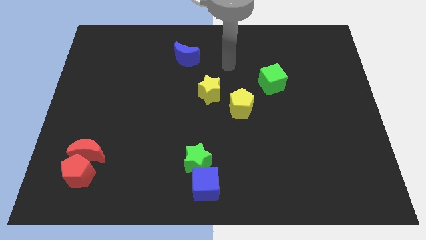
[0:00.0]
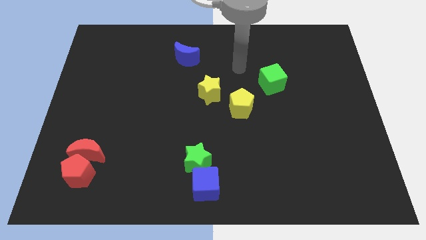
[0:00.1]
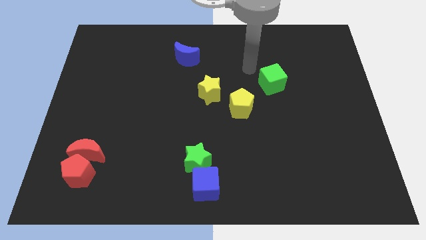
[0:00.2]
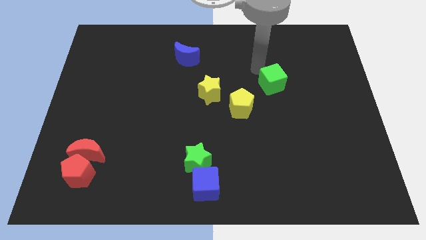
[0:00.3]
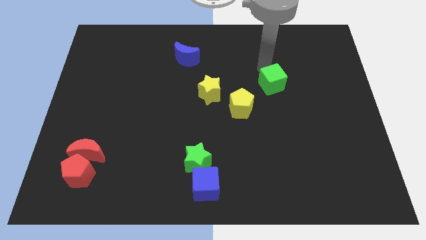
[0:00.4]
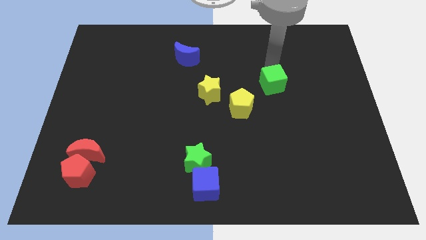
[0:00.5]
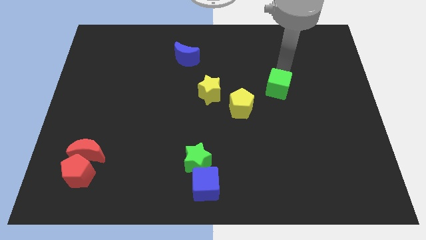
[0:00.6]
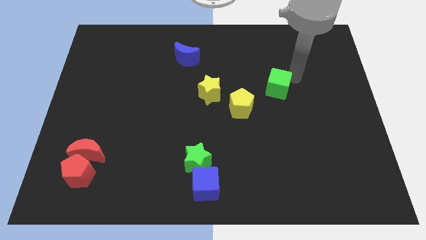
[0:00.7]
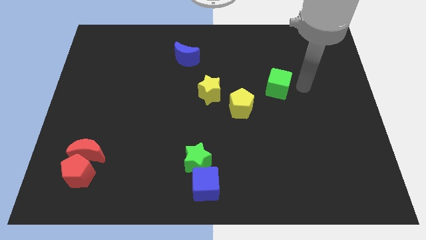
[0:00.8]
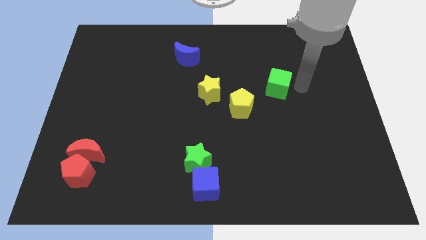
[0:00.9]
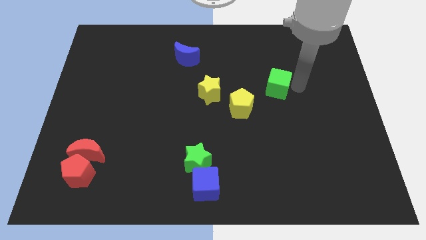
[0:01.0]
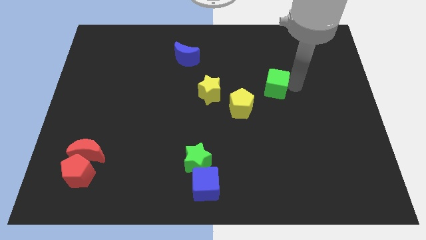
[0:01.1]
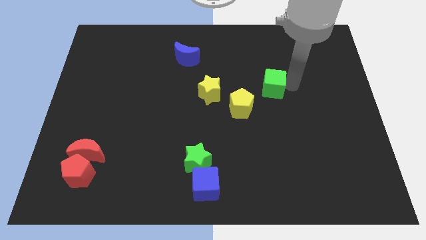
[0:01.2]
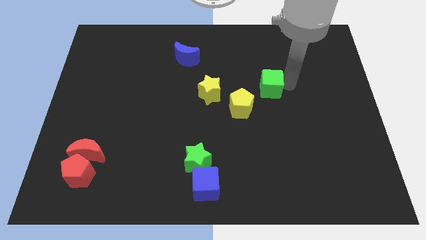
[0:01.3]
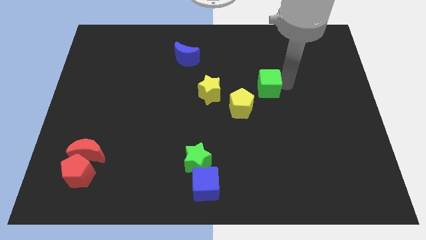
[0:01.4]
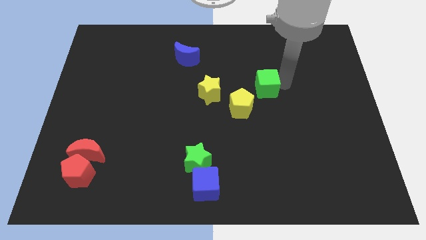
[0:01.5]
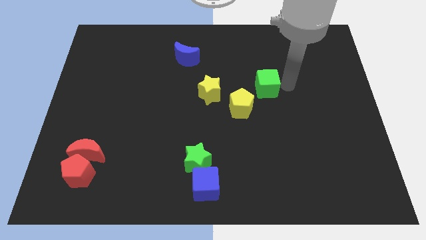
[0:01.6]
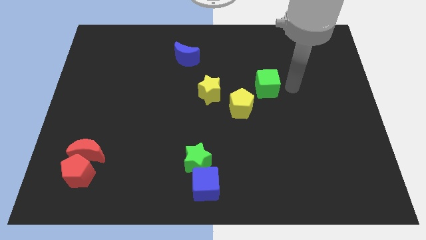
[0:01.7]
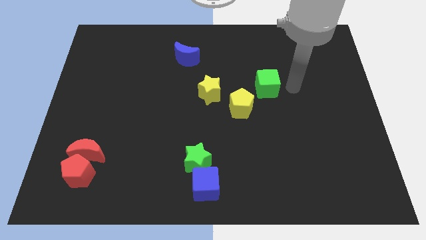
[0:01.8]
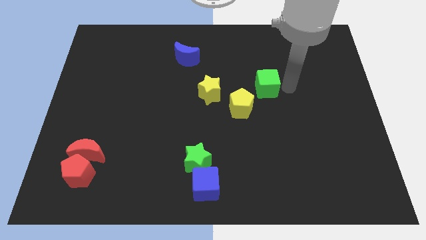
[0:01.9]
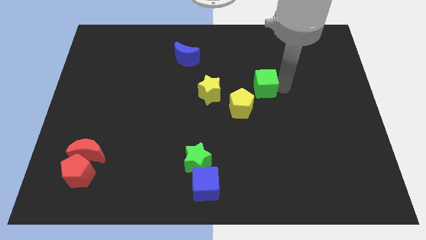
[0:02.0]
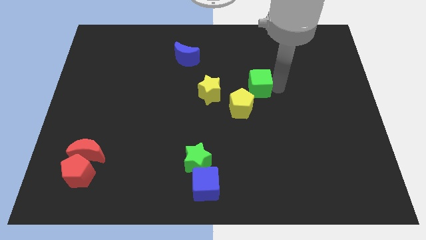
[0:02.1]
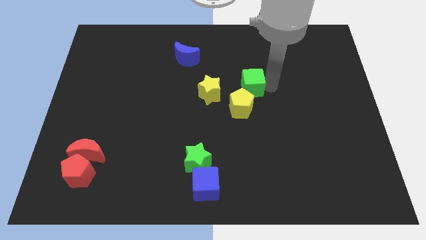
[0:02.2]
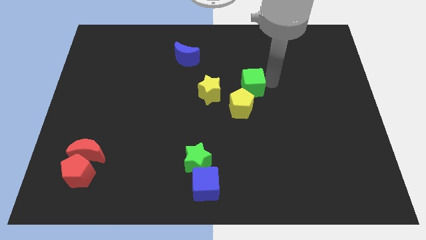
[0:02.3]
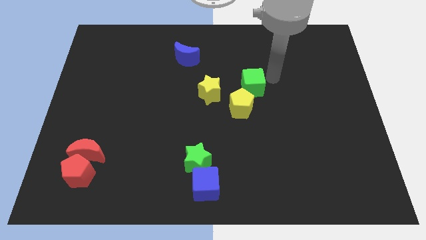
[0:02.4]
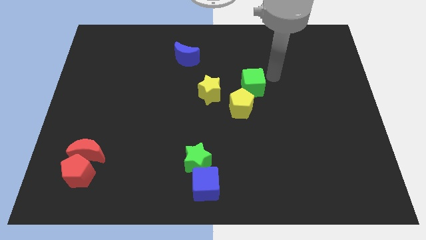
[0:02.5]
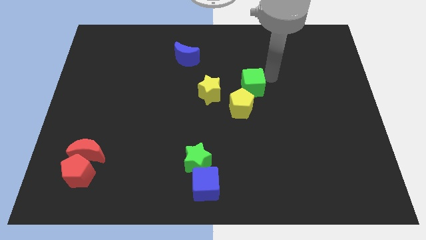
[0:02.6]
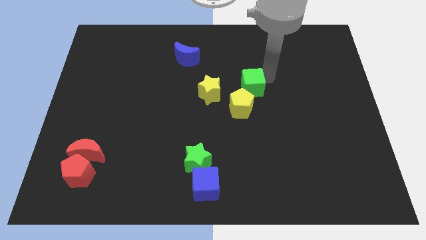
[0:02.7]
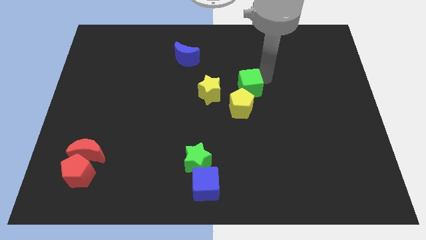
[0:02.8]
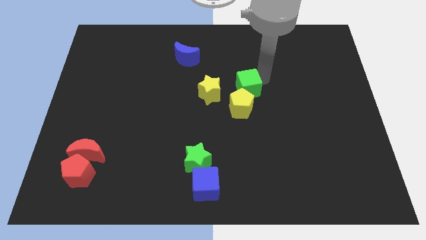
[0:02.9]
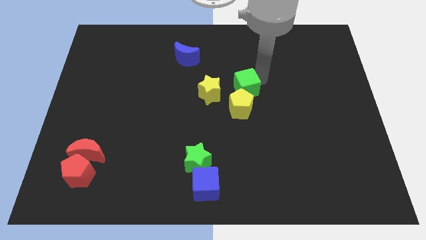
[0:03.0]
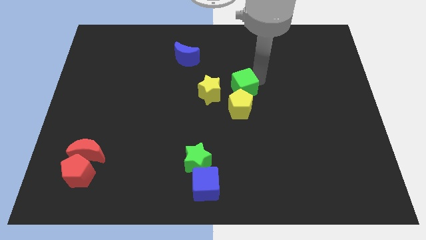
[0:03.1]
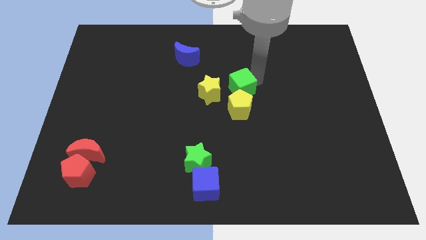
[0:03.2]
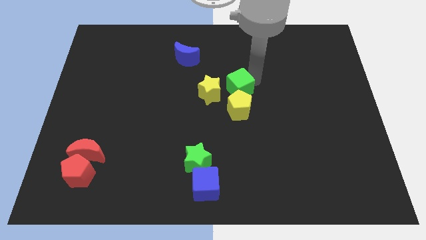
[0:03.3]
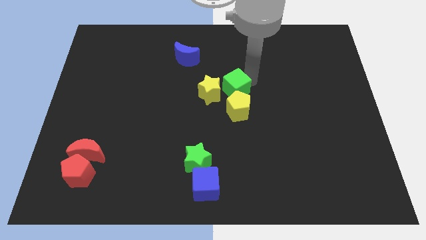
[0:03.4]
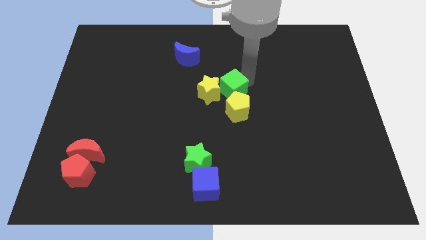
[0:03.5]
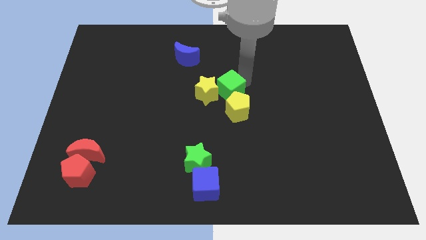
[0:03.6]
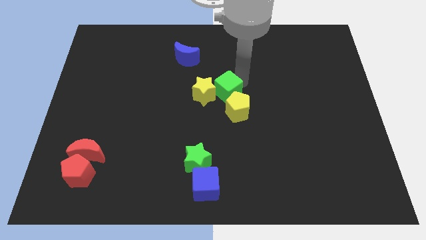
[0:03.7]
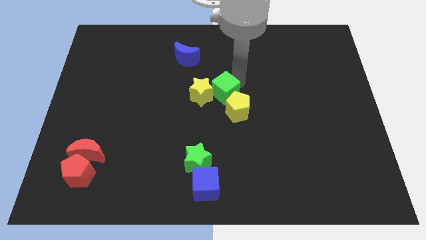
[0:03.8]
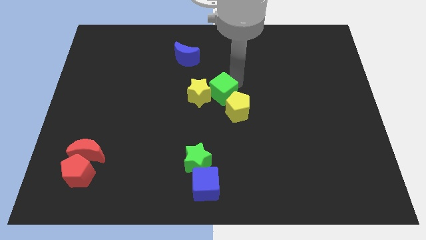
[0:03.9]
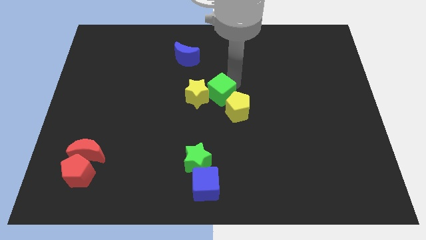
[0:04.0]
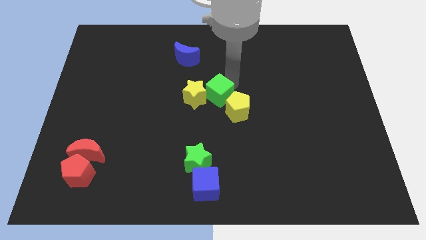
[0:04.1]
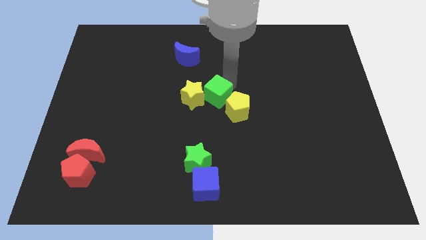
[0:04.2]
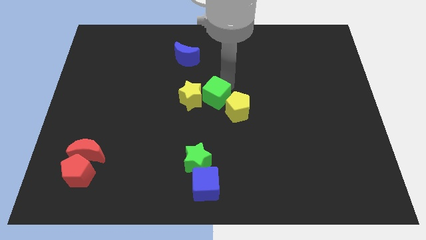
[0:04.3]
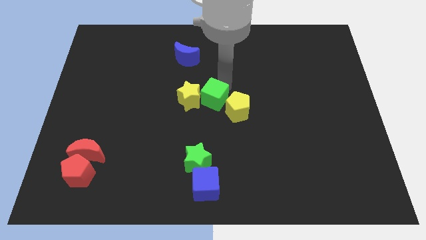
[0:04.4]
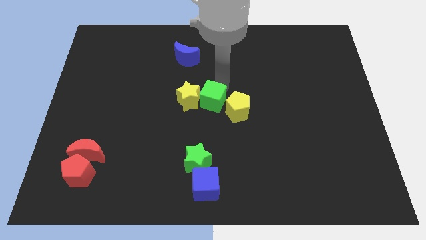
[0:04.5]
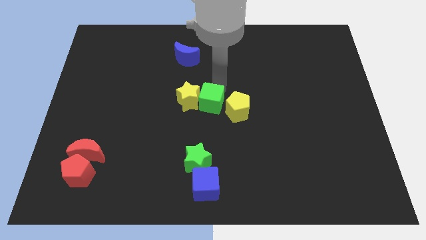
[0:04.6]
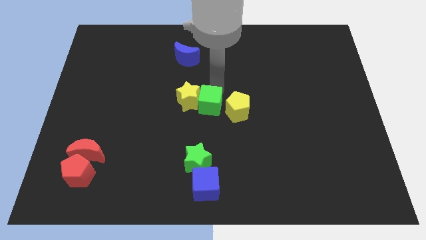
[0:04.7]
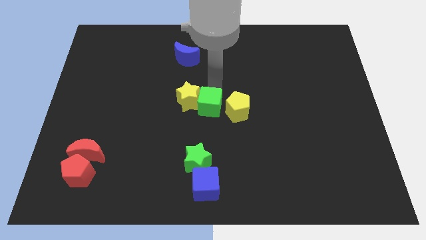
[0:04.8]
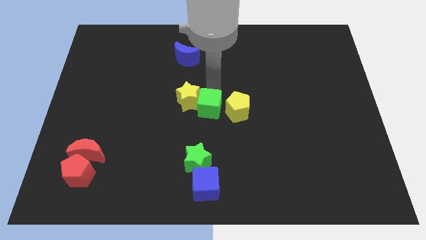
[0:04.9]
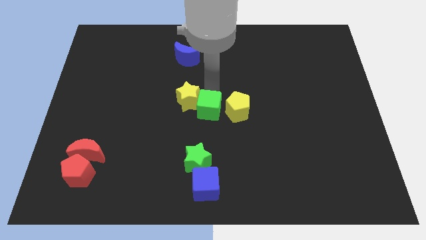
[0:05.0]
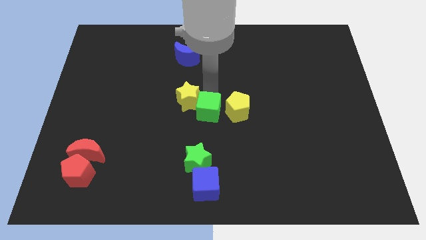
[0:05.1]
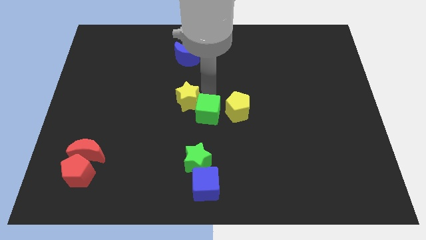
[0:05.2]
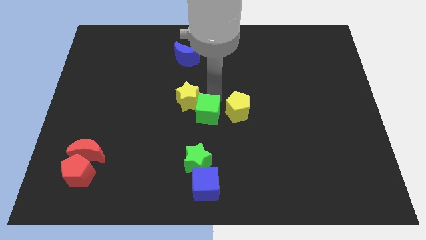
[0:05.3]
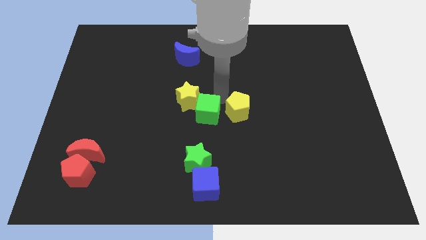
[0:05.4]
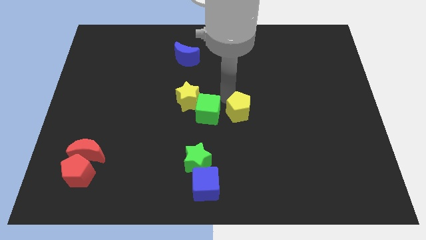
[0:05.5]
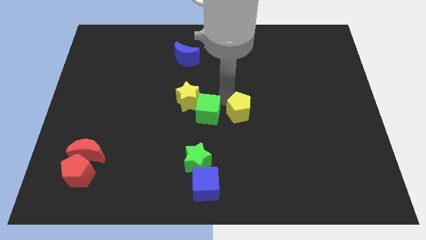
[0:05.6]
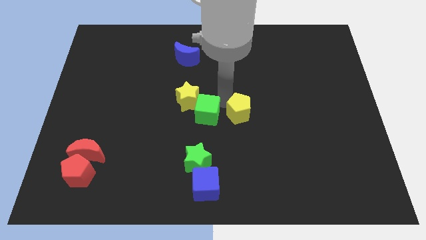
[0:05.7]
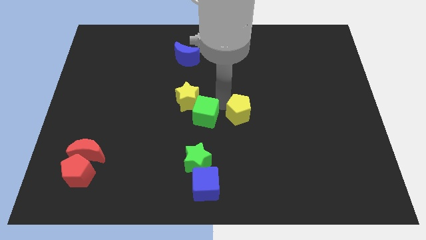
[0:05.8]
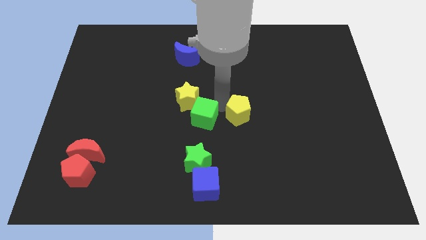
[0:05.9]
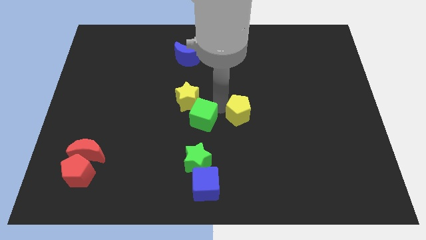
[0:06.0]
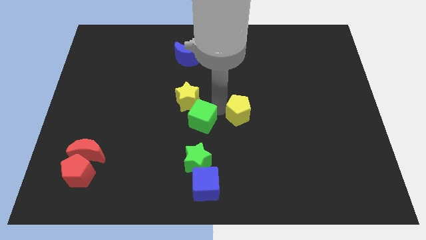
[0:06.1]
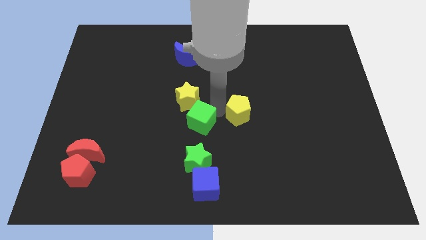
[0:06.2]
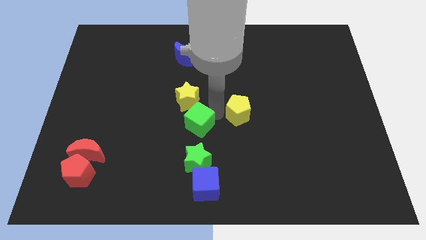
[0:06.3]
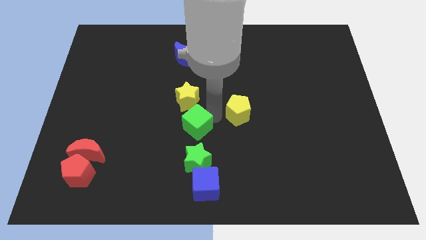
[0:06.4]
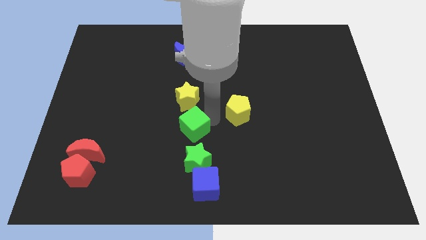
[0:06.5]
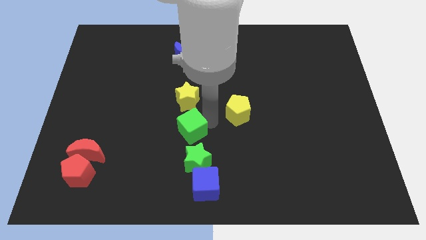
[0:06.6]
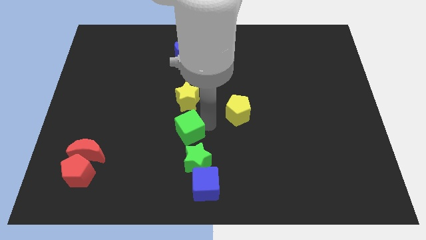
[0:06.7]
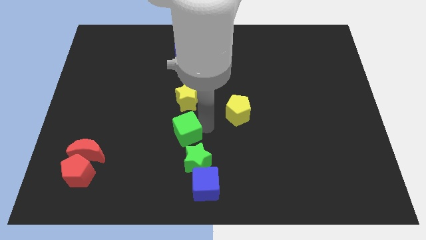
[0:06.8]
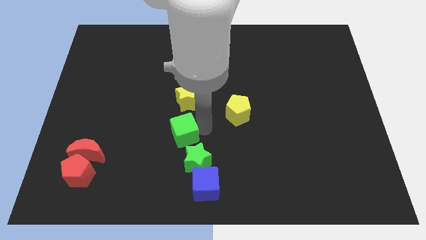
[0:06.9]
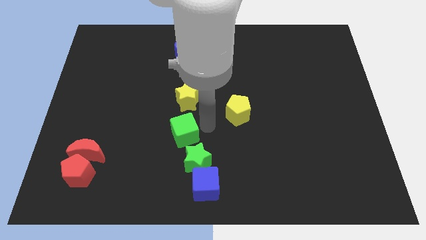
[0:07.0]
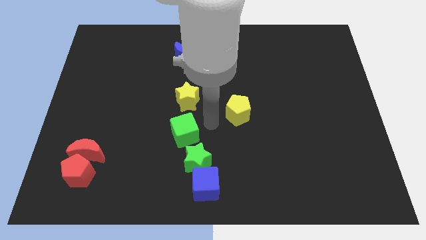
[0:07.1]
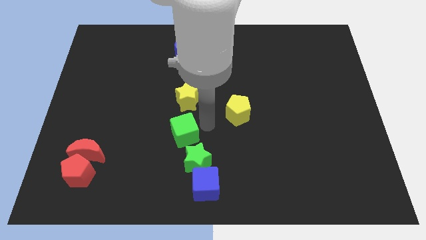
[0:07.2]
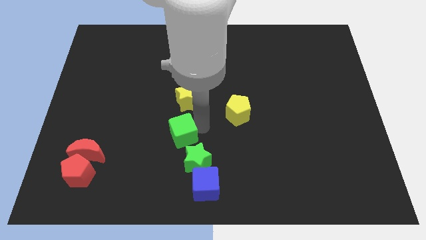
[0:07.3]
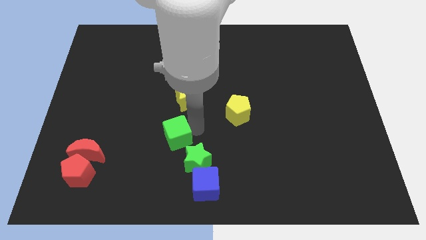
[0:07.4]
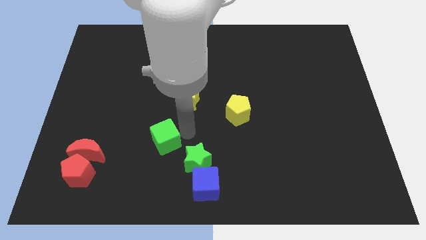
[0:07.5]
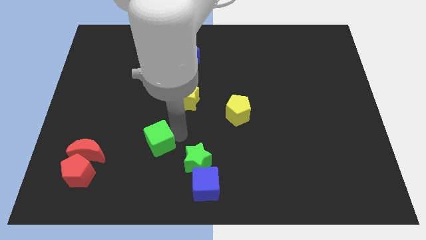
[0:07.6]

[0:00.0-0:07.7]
put the green cube to the right side of the red moon
